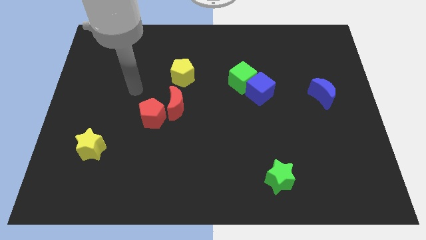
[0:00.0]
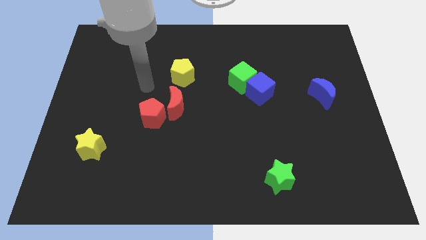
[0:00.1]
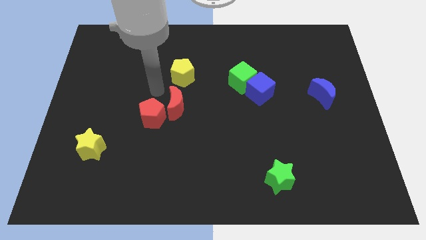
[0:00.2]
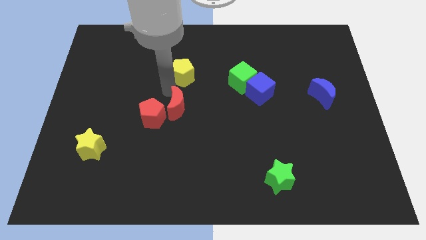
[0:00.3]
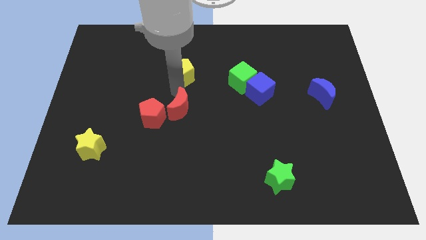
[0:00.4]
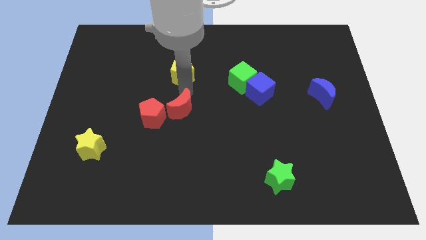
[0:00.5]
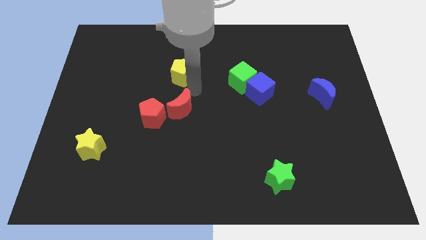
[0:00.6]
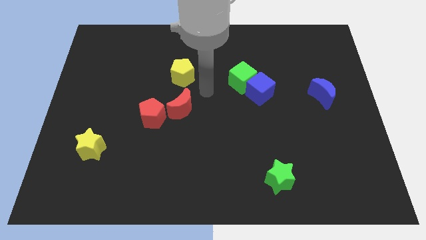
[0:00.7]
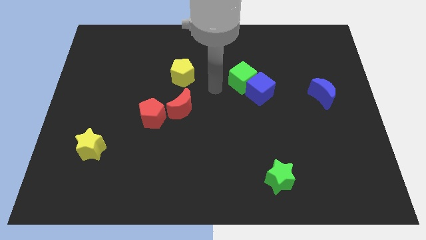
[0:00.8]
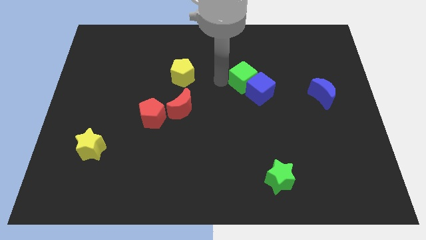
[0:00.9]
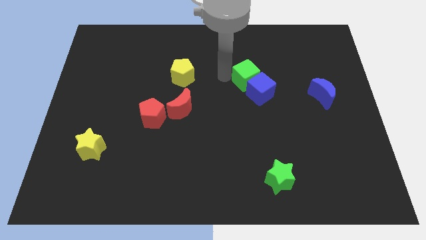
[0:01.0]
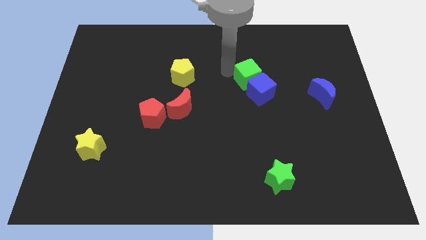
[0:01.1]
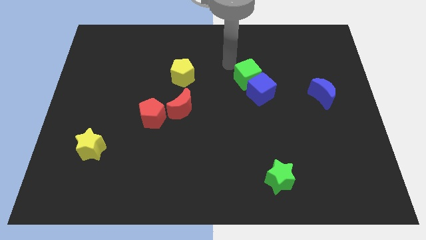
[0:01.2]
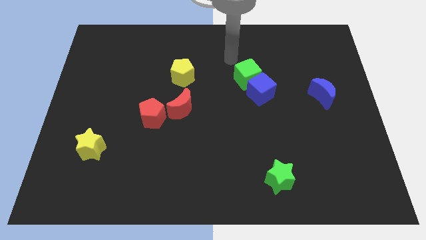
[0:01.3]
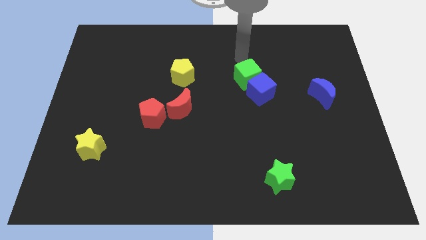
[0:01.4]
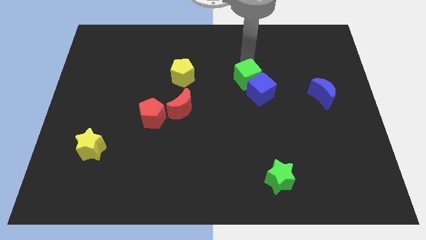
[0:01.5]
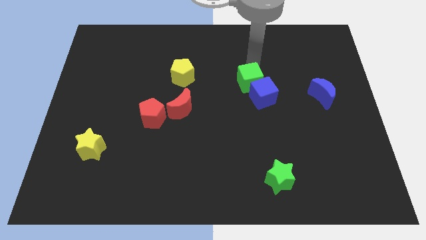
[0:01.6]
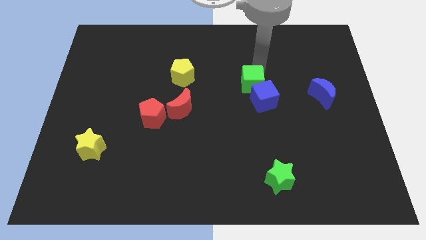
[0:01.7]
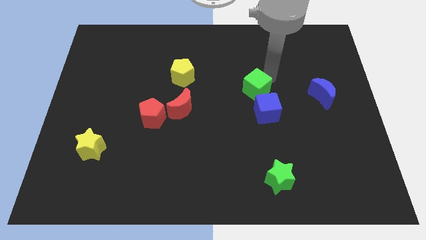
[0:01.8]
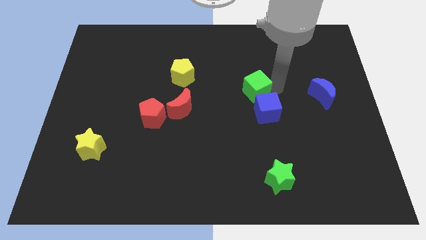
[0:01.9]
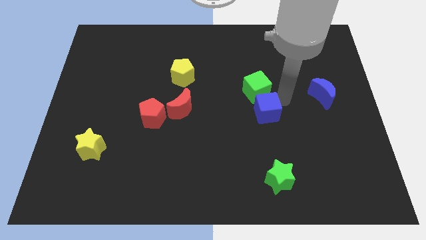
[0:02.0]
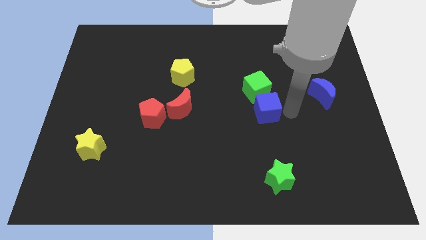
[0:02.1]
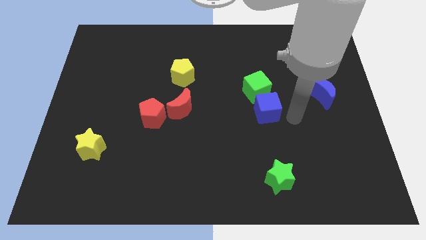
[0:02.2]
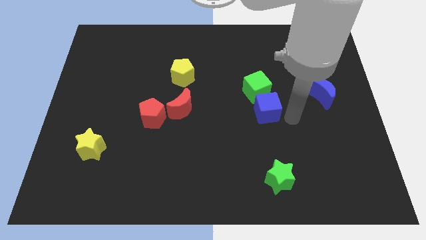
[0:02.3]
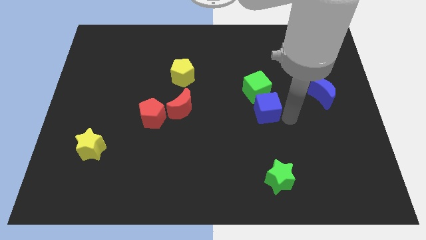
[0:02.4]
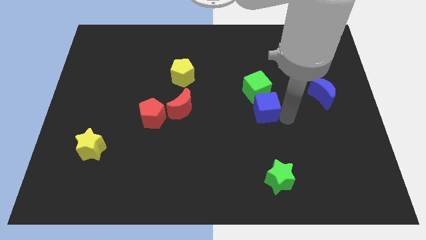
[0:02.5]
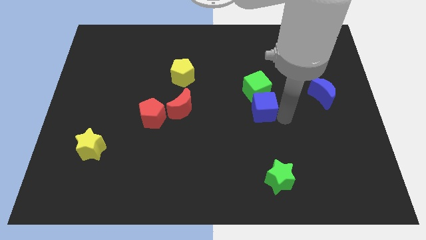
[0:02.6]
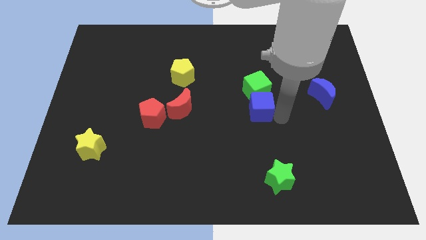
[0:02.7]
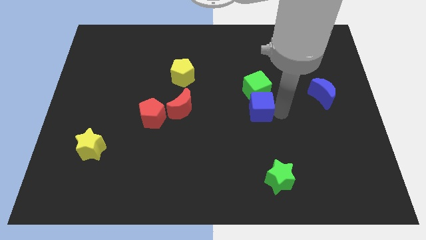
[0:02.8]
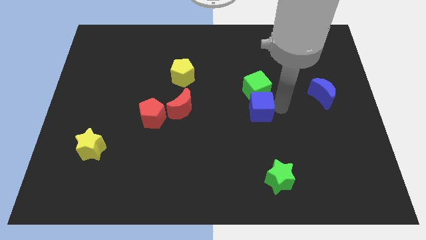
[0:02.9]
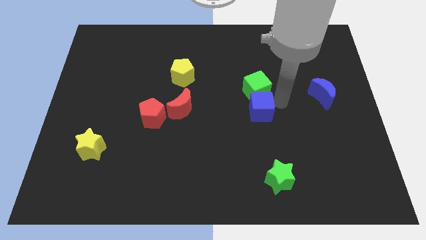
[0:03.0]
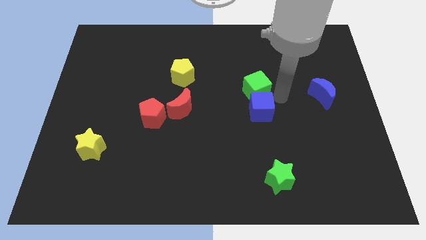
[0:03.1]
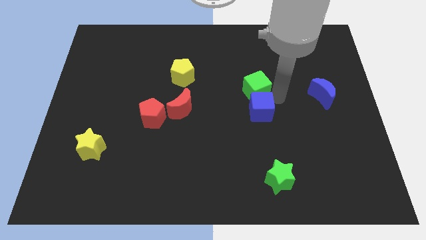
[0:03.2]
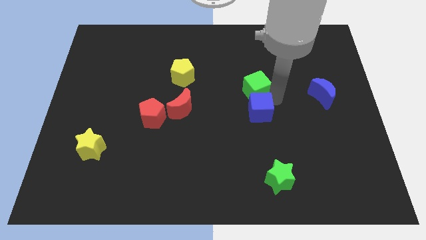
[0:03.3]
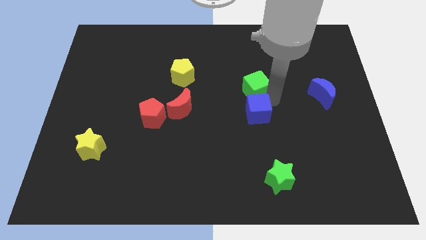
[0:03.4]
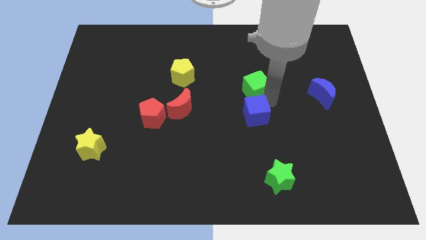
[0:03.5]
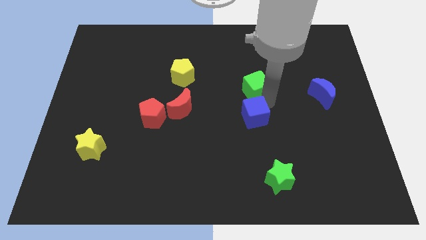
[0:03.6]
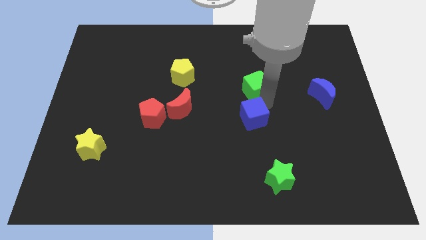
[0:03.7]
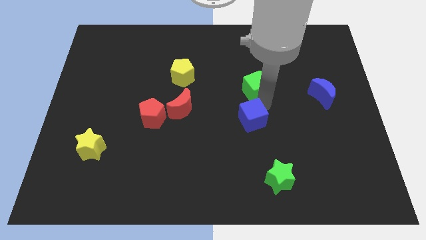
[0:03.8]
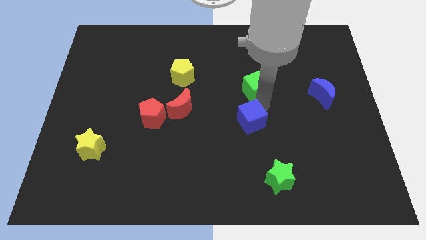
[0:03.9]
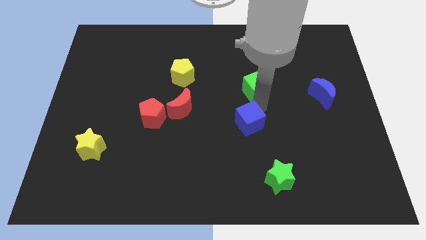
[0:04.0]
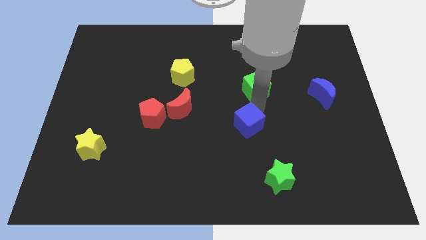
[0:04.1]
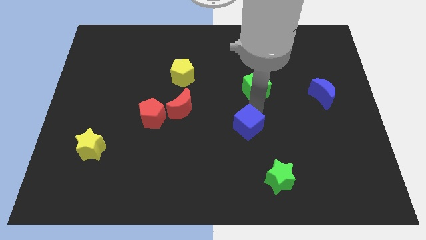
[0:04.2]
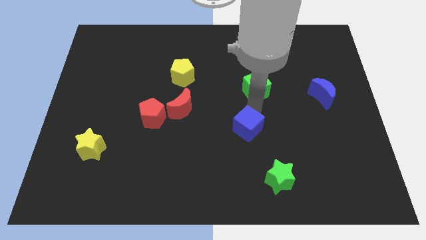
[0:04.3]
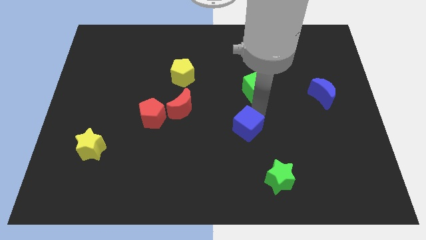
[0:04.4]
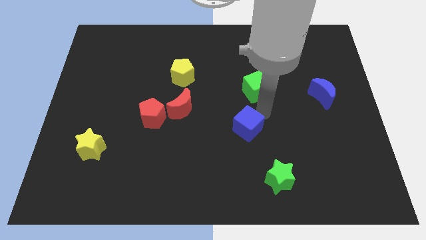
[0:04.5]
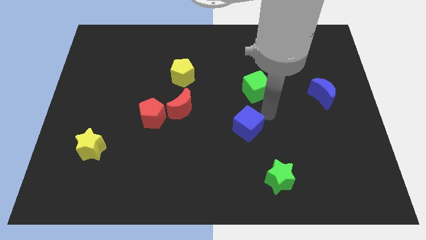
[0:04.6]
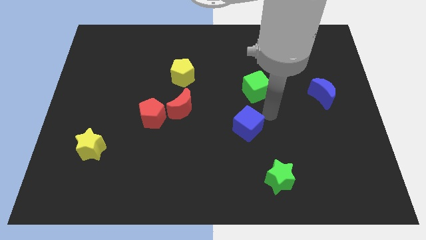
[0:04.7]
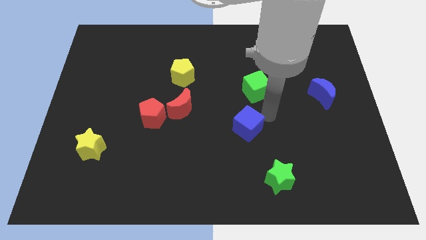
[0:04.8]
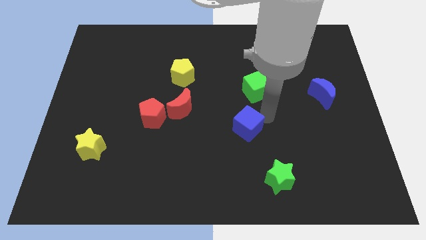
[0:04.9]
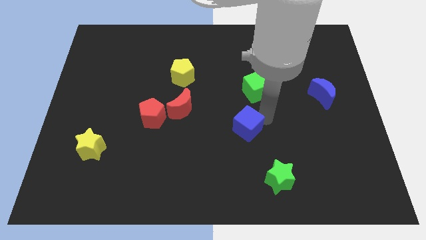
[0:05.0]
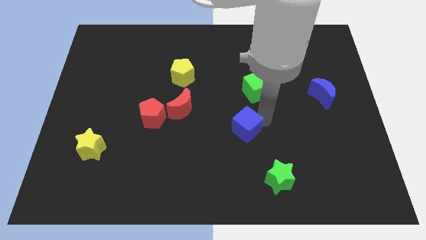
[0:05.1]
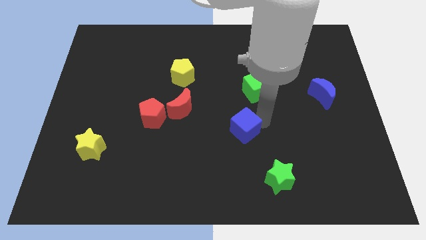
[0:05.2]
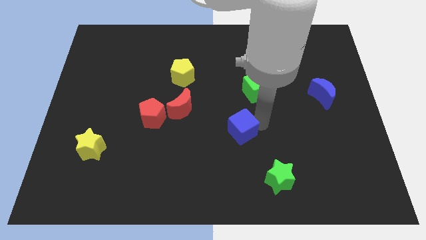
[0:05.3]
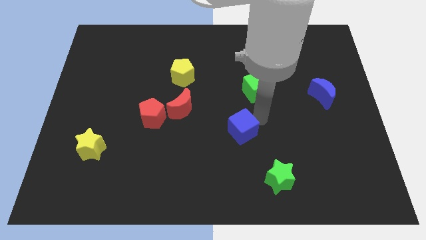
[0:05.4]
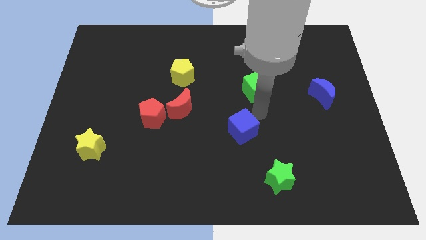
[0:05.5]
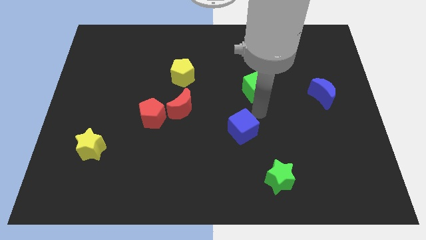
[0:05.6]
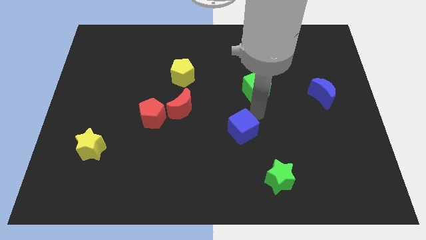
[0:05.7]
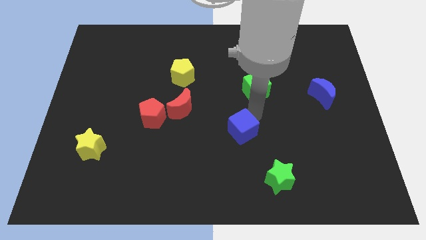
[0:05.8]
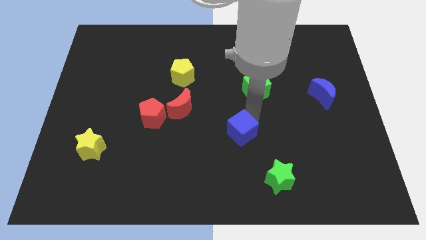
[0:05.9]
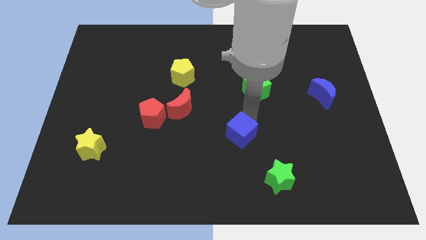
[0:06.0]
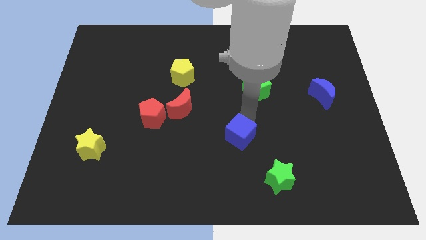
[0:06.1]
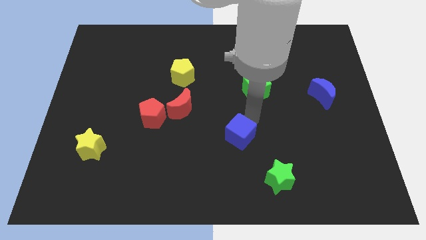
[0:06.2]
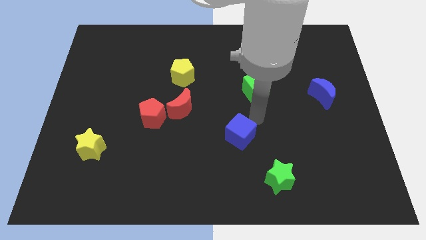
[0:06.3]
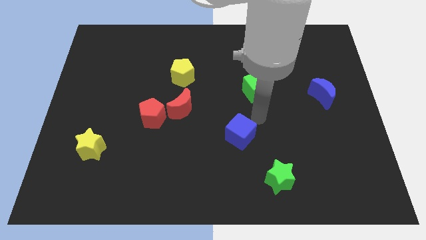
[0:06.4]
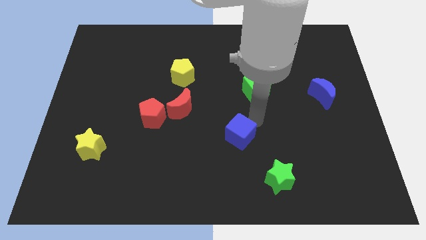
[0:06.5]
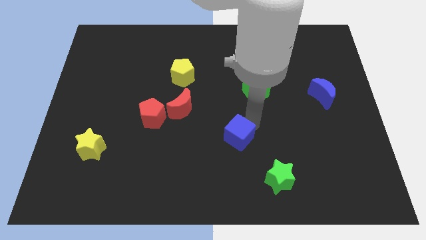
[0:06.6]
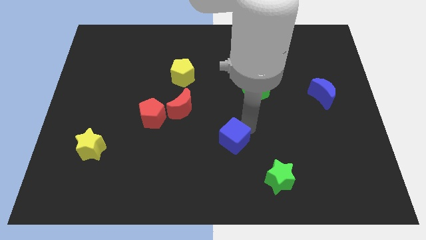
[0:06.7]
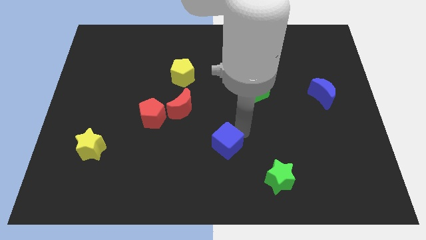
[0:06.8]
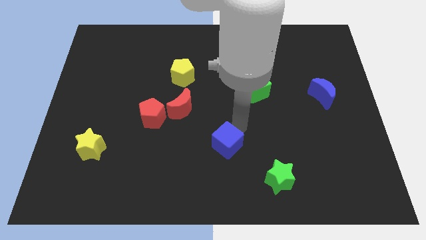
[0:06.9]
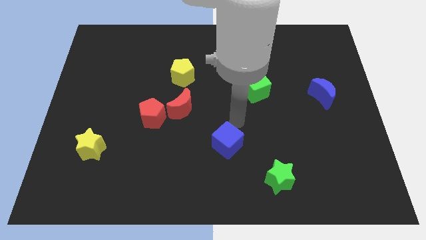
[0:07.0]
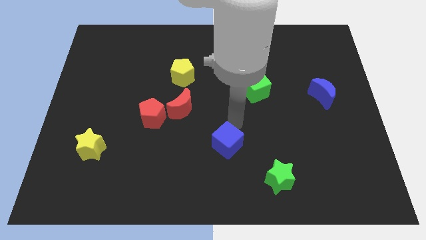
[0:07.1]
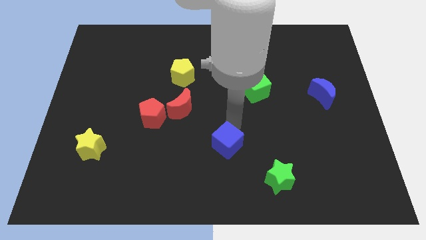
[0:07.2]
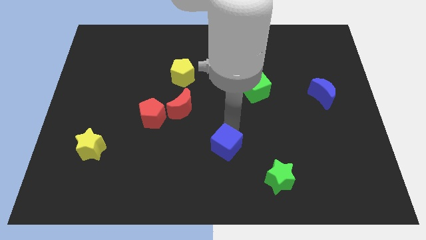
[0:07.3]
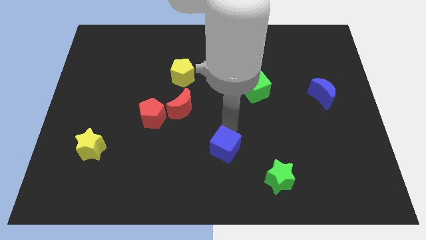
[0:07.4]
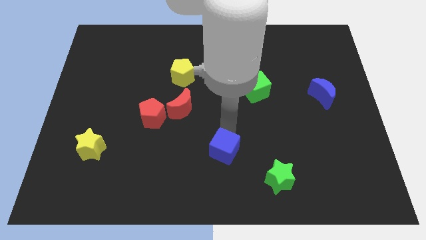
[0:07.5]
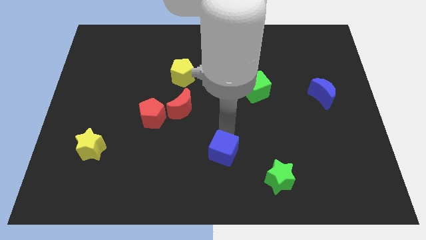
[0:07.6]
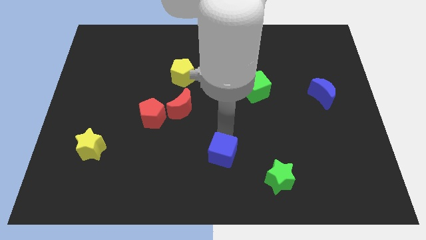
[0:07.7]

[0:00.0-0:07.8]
slide the blue cube to the bottom
